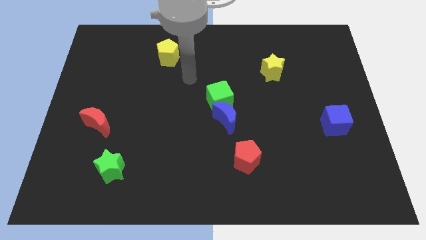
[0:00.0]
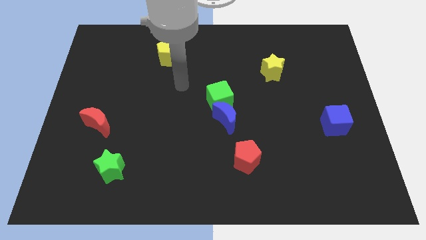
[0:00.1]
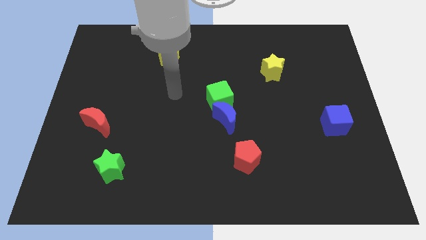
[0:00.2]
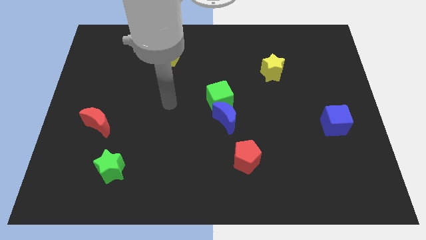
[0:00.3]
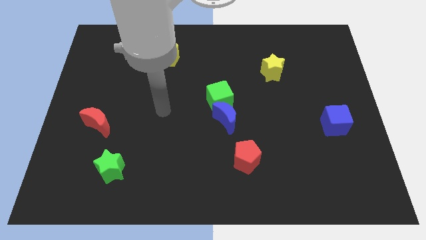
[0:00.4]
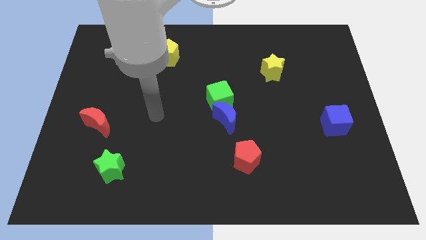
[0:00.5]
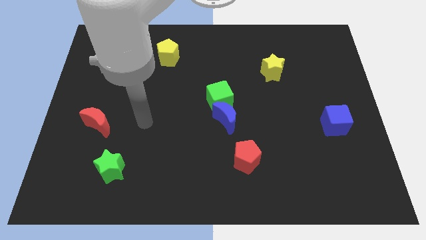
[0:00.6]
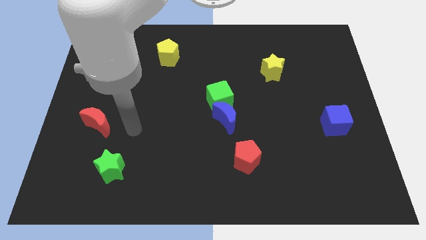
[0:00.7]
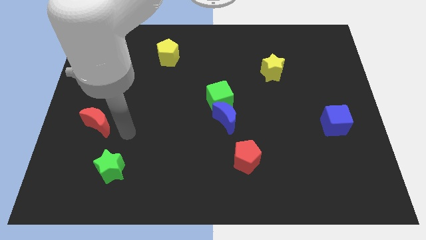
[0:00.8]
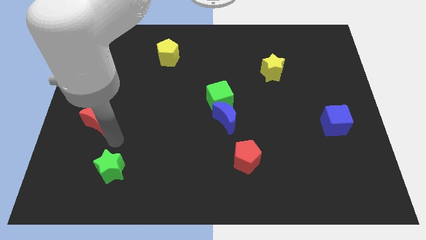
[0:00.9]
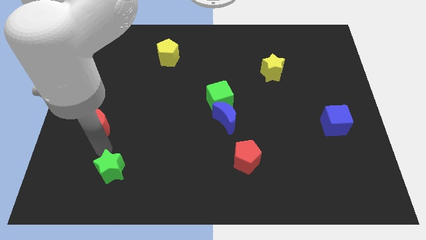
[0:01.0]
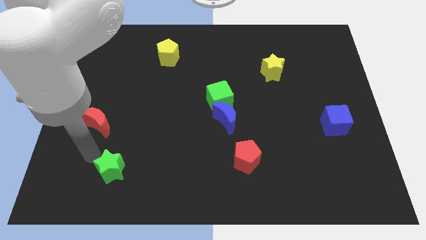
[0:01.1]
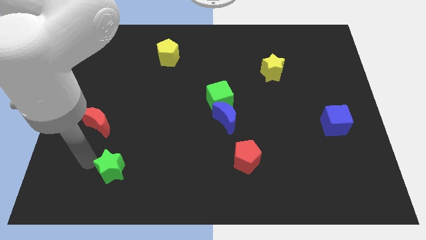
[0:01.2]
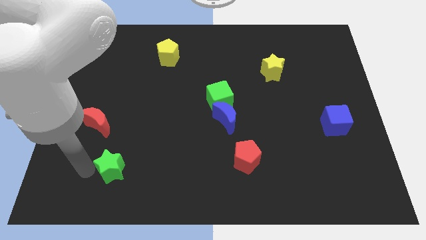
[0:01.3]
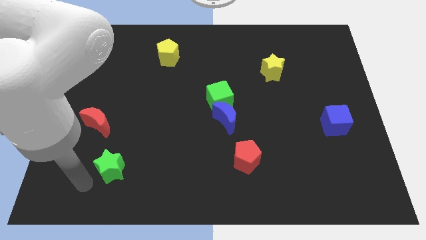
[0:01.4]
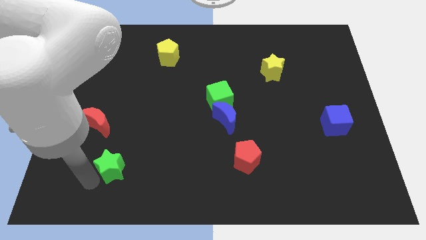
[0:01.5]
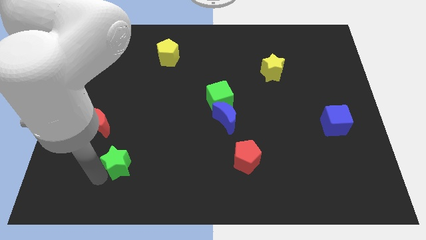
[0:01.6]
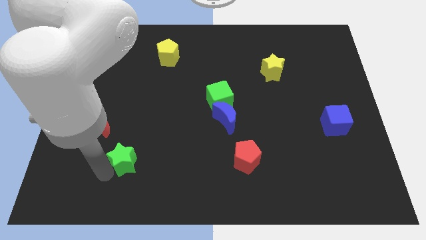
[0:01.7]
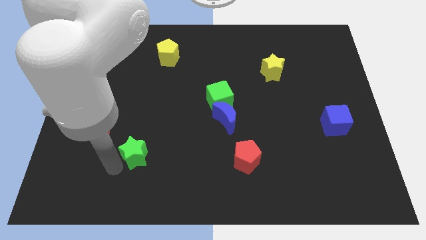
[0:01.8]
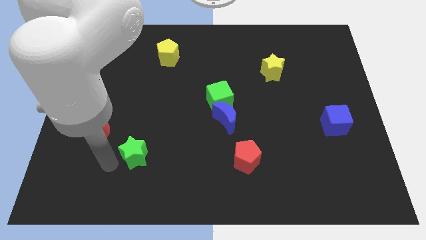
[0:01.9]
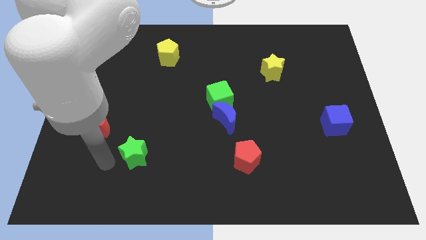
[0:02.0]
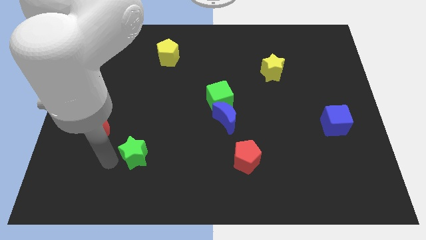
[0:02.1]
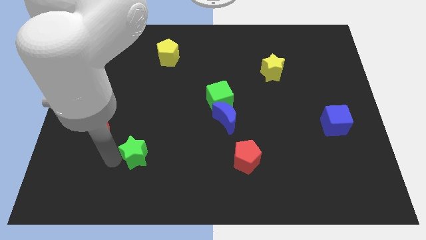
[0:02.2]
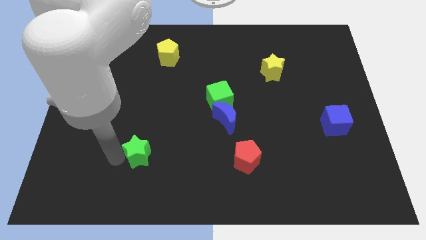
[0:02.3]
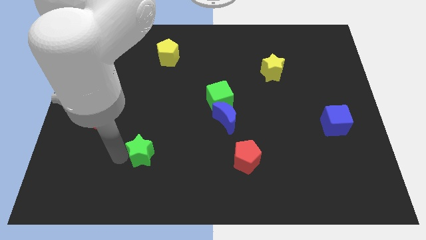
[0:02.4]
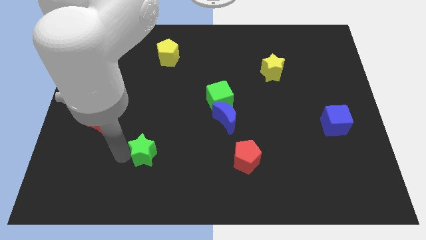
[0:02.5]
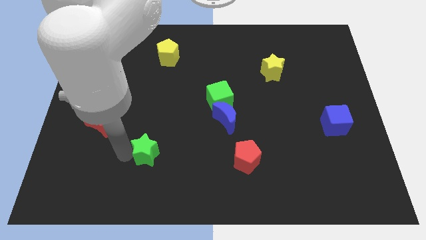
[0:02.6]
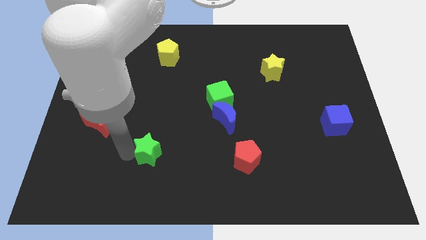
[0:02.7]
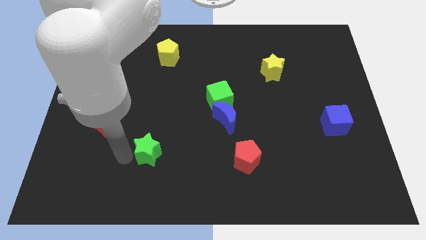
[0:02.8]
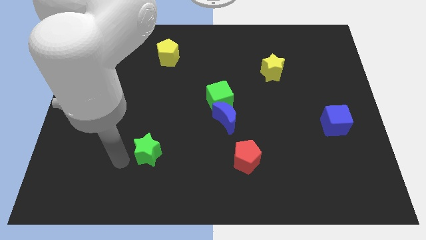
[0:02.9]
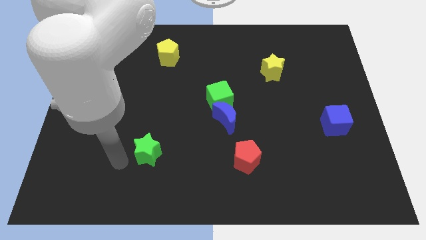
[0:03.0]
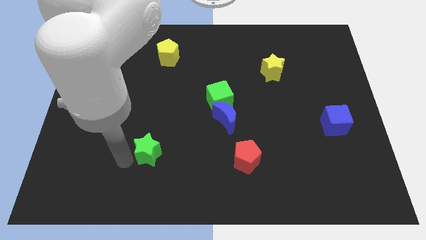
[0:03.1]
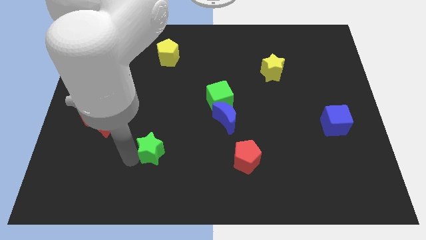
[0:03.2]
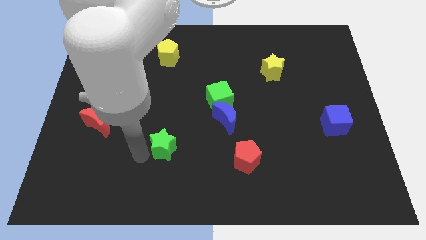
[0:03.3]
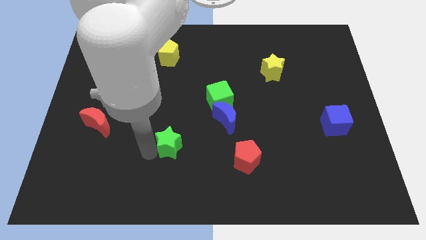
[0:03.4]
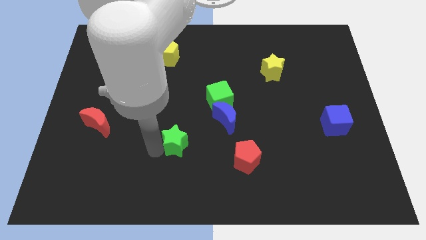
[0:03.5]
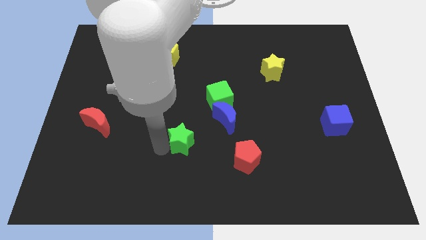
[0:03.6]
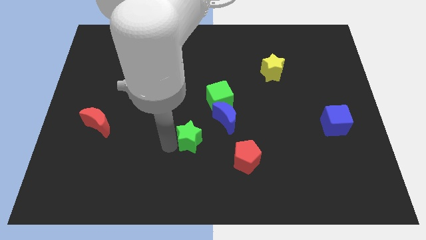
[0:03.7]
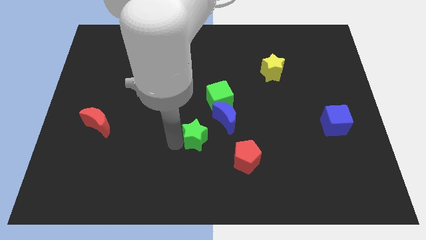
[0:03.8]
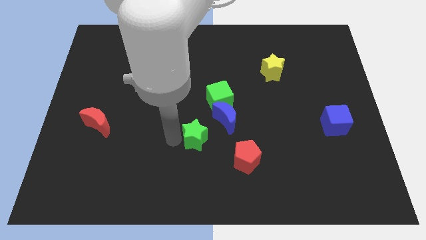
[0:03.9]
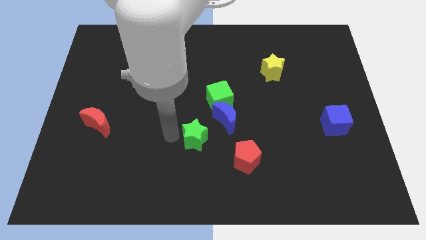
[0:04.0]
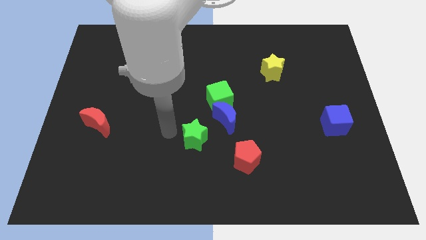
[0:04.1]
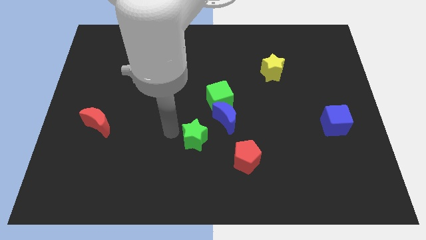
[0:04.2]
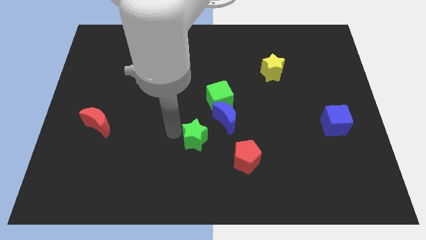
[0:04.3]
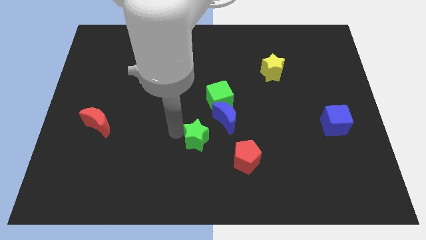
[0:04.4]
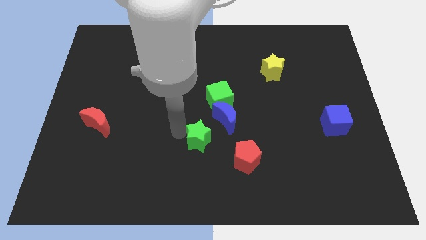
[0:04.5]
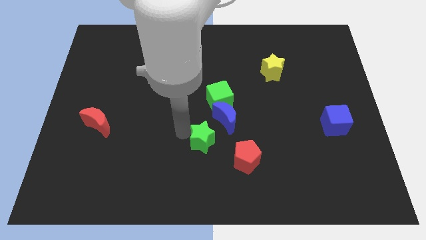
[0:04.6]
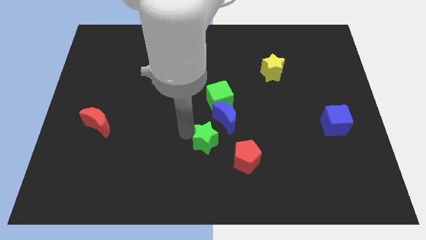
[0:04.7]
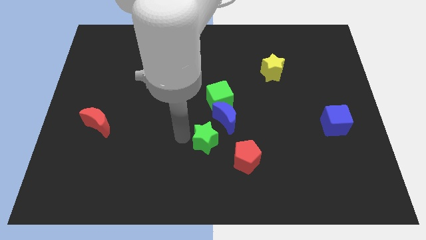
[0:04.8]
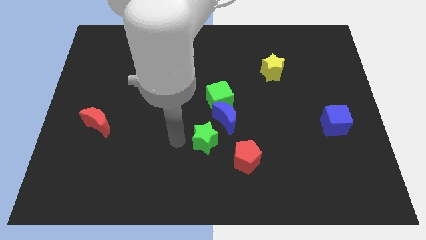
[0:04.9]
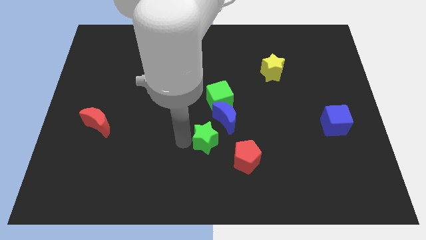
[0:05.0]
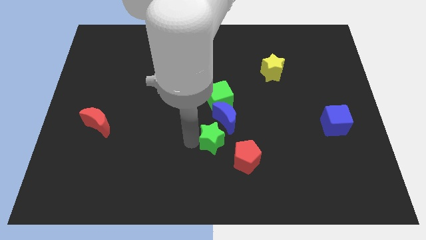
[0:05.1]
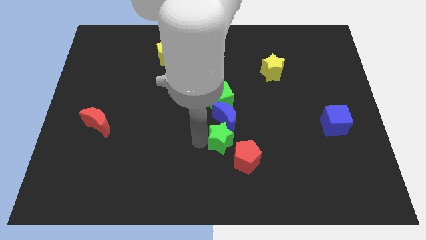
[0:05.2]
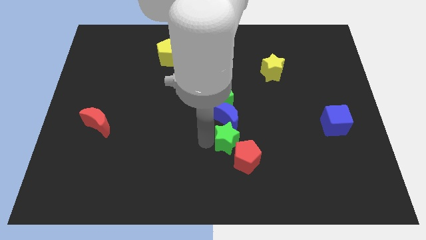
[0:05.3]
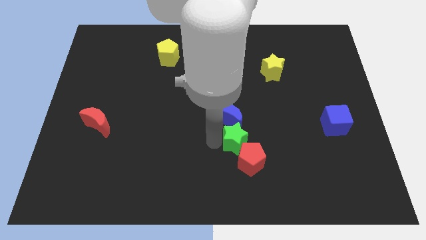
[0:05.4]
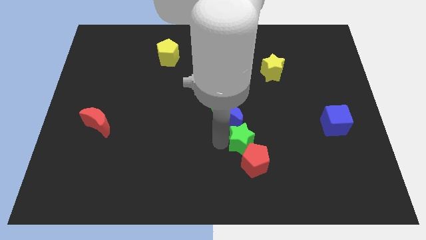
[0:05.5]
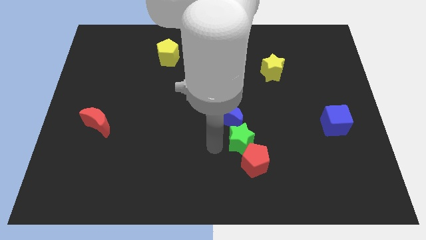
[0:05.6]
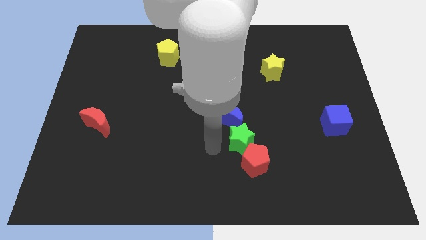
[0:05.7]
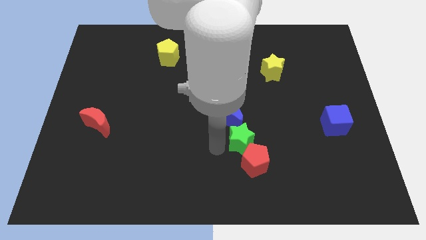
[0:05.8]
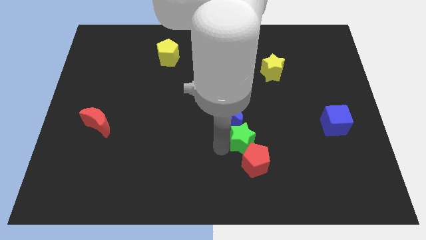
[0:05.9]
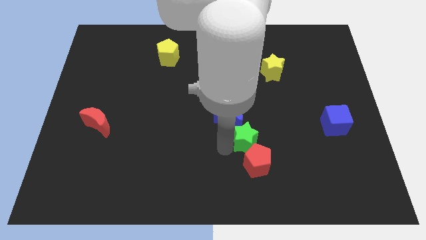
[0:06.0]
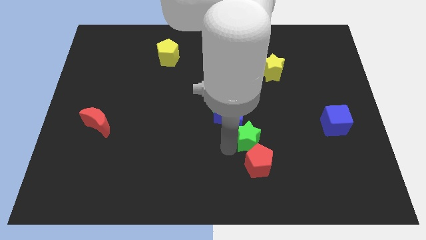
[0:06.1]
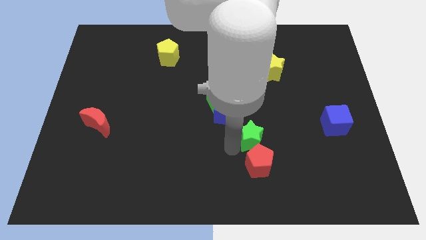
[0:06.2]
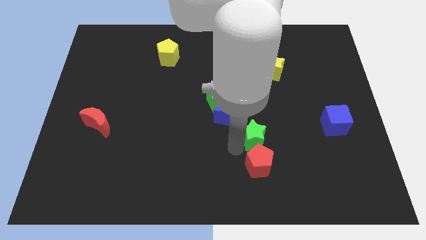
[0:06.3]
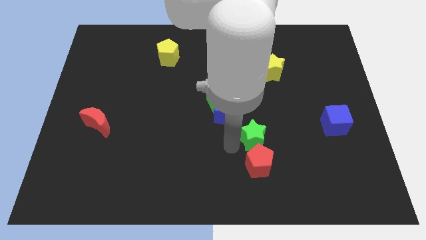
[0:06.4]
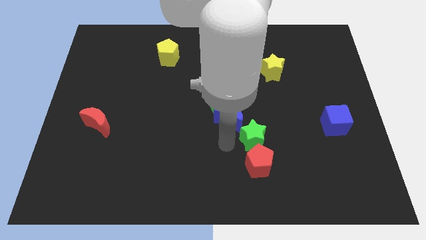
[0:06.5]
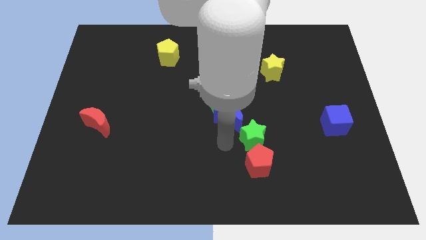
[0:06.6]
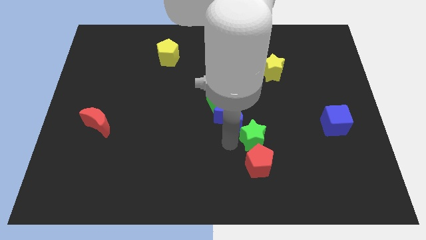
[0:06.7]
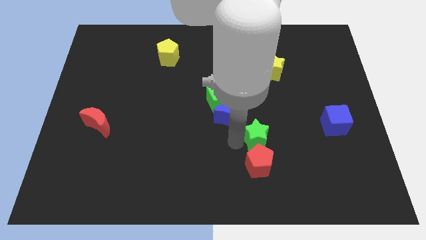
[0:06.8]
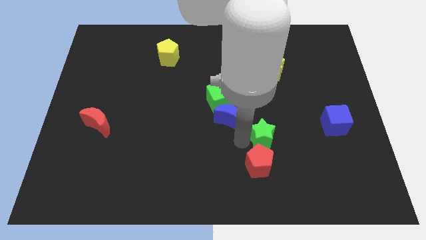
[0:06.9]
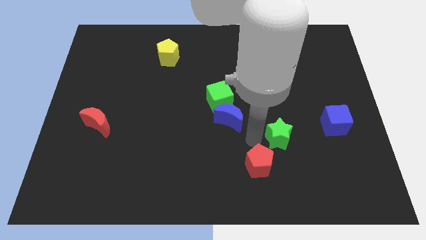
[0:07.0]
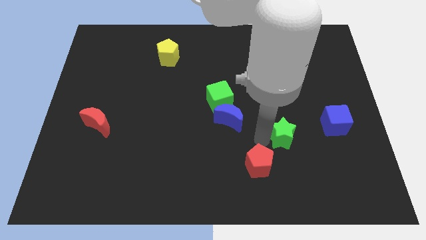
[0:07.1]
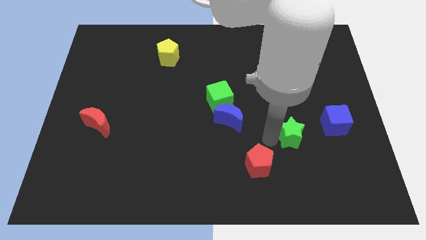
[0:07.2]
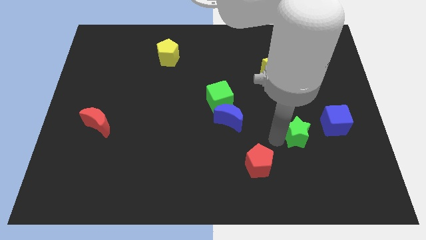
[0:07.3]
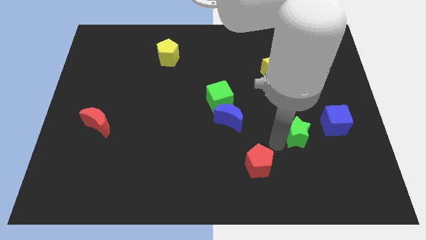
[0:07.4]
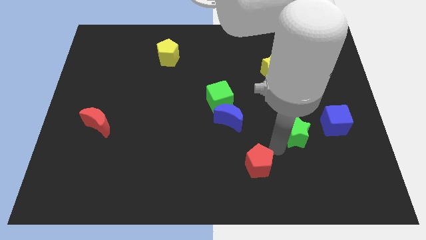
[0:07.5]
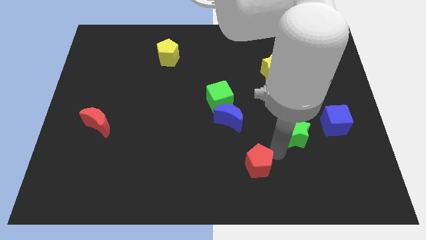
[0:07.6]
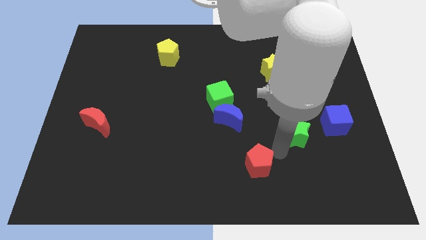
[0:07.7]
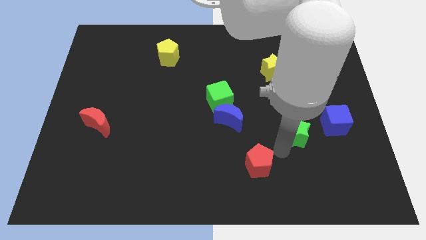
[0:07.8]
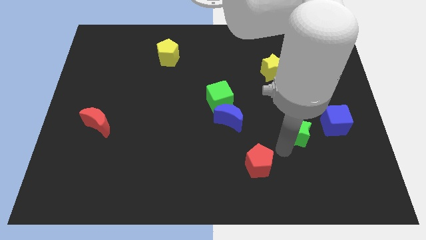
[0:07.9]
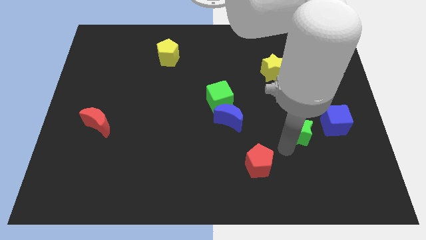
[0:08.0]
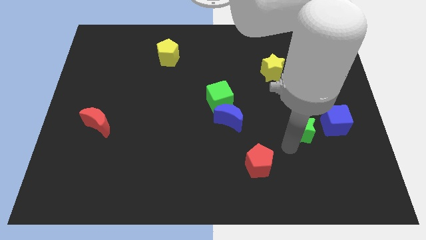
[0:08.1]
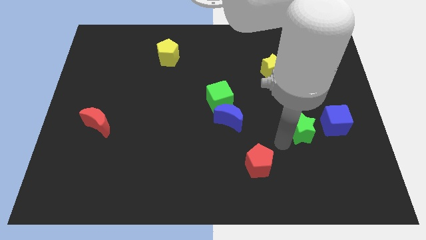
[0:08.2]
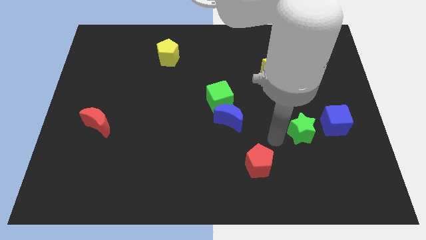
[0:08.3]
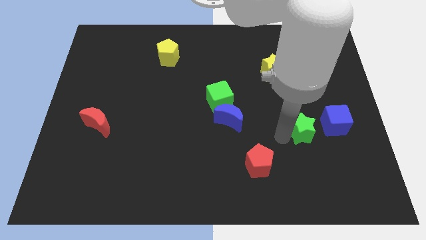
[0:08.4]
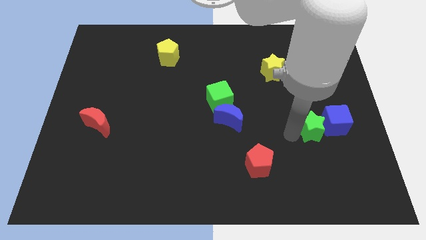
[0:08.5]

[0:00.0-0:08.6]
move the green star next to the blue cube
